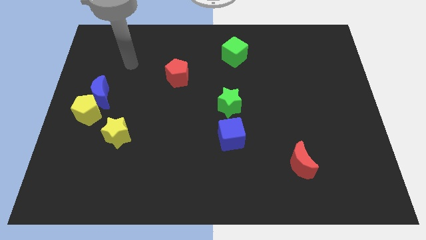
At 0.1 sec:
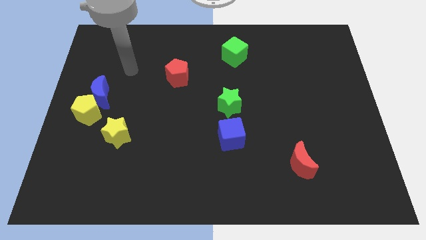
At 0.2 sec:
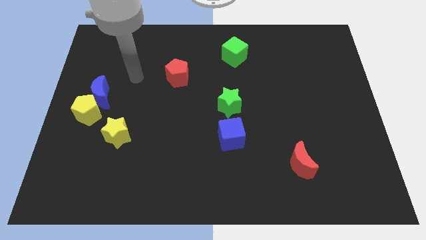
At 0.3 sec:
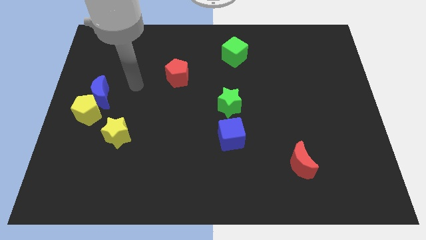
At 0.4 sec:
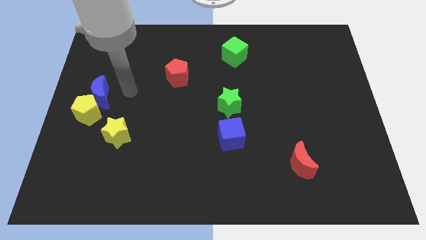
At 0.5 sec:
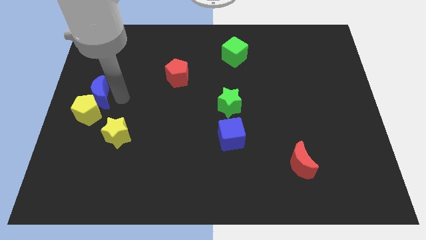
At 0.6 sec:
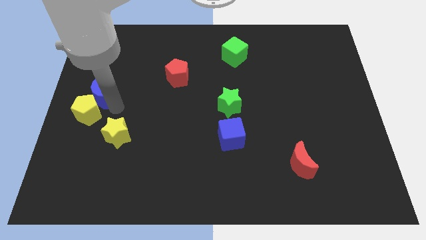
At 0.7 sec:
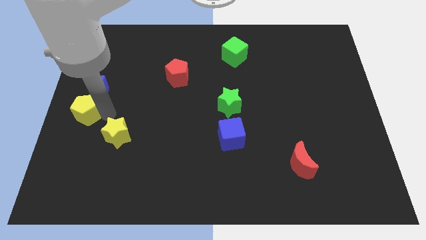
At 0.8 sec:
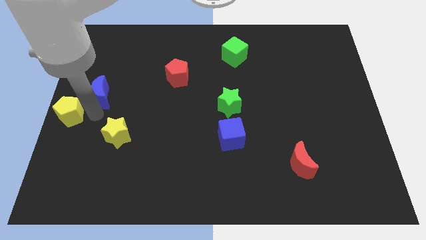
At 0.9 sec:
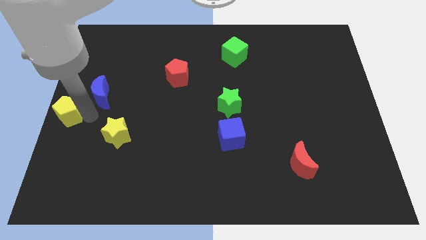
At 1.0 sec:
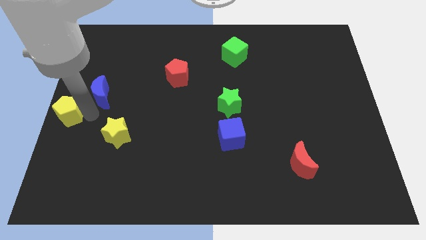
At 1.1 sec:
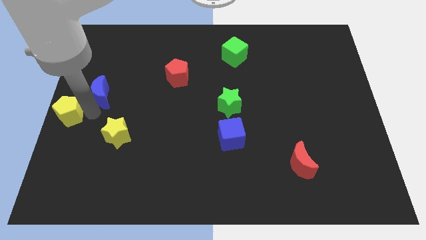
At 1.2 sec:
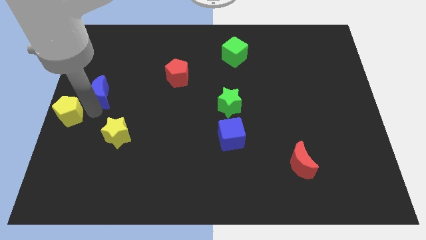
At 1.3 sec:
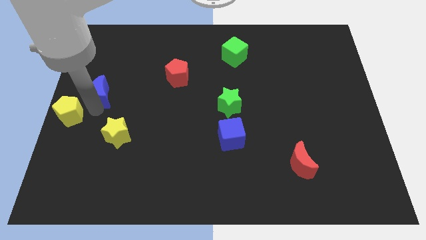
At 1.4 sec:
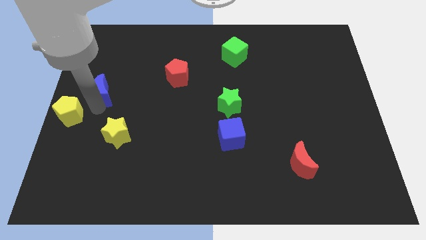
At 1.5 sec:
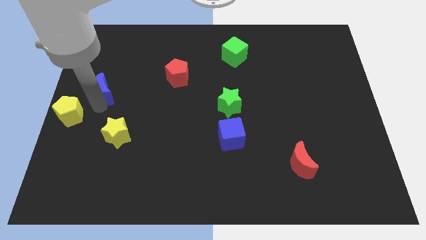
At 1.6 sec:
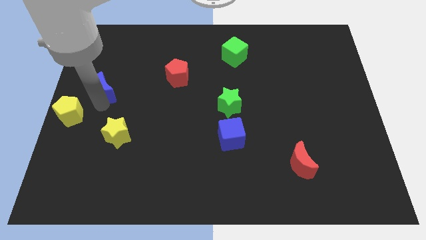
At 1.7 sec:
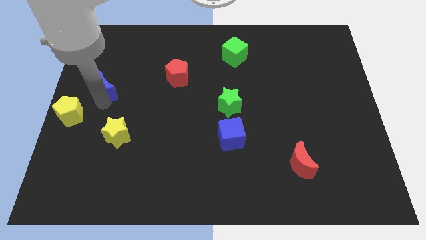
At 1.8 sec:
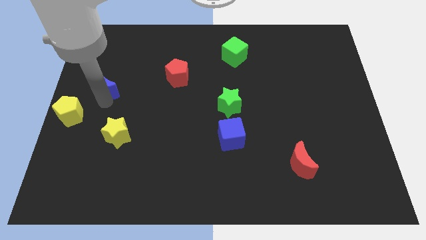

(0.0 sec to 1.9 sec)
pull the blue moon apart from the yellow pentagon

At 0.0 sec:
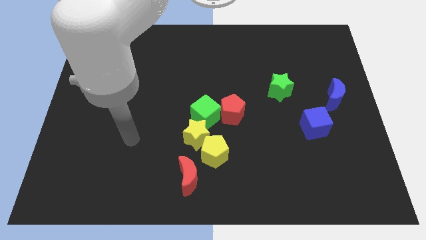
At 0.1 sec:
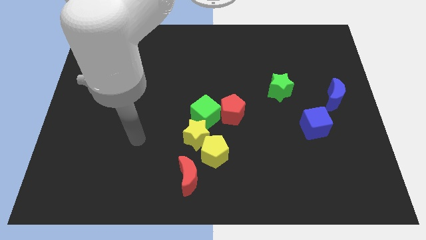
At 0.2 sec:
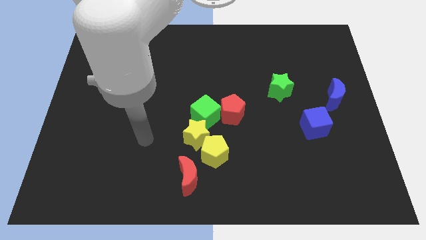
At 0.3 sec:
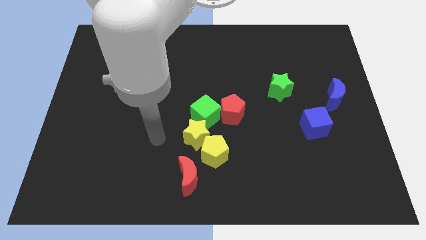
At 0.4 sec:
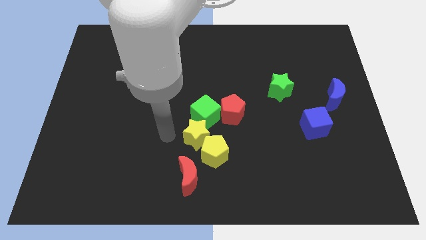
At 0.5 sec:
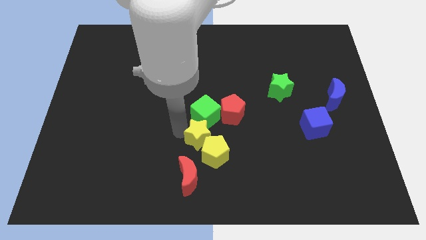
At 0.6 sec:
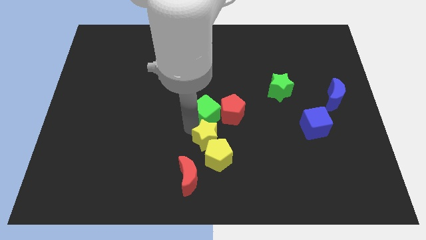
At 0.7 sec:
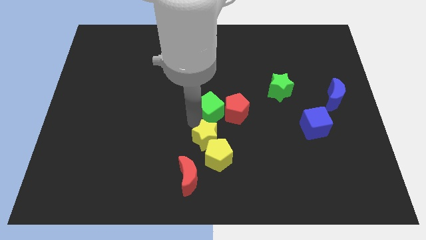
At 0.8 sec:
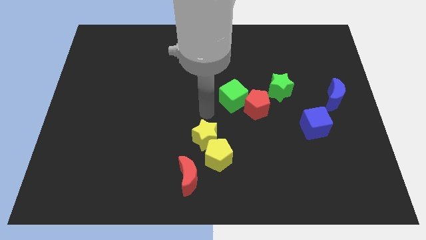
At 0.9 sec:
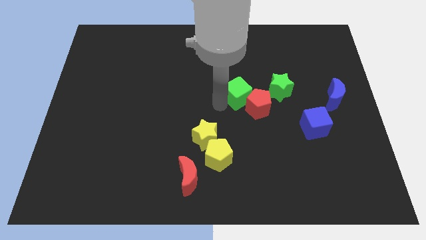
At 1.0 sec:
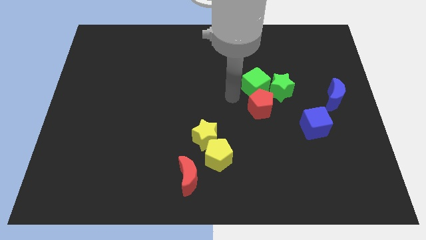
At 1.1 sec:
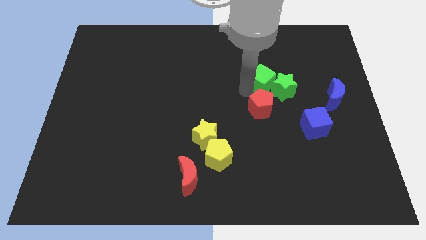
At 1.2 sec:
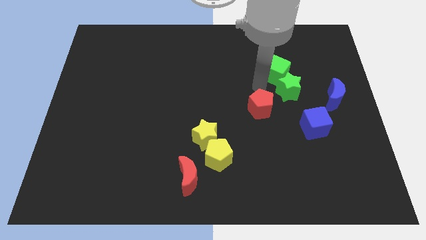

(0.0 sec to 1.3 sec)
move the red pentagon away from the green cube

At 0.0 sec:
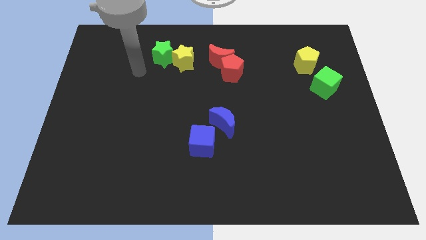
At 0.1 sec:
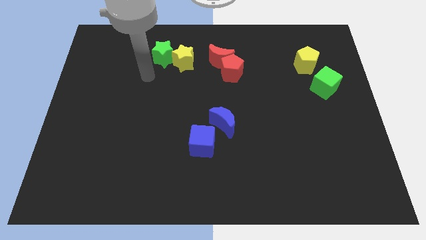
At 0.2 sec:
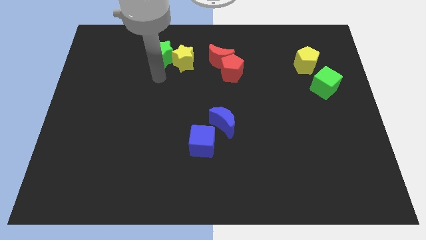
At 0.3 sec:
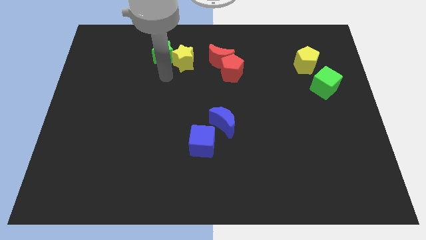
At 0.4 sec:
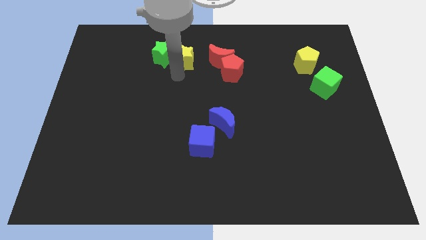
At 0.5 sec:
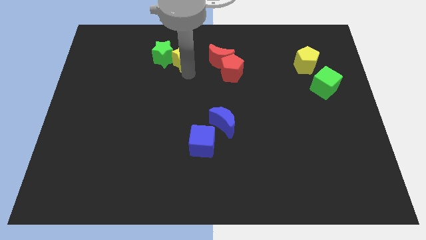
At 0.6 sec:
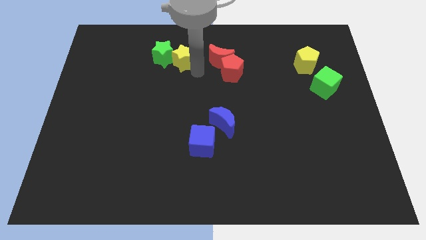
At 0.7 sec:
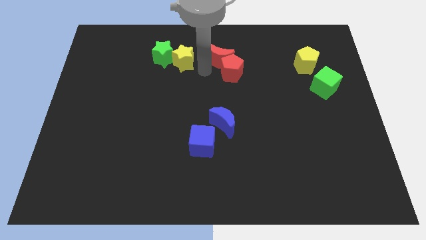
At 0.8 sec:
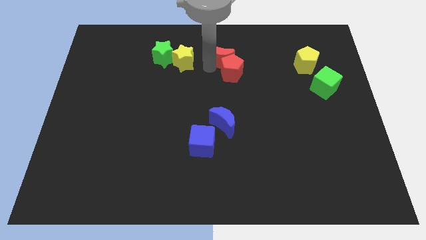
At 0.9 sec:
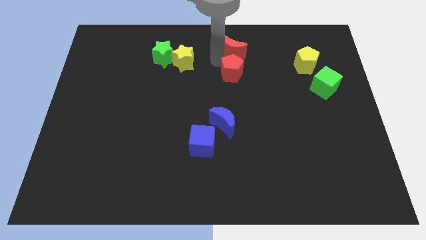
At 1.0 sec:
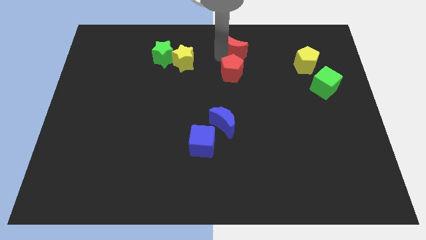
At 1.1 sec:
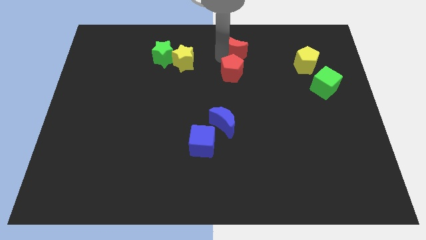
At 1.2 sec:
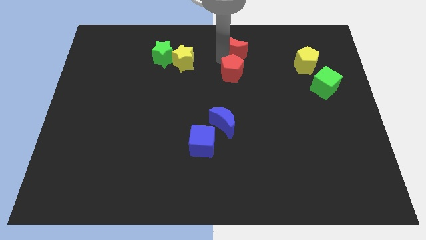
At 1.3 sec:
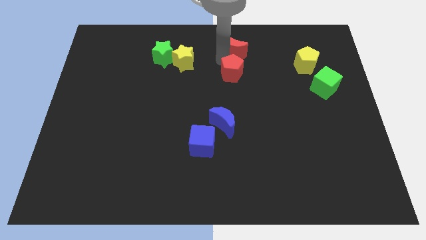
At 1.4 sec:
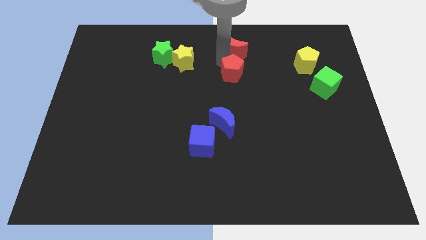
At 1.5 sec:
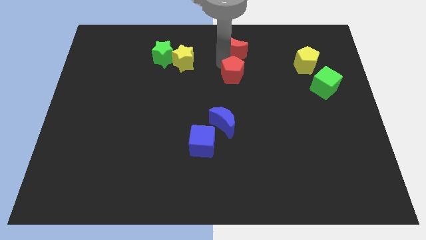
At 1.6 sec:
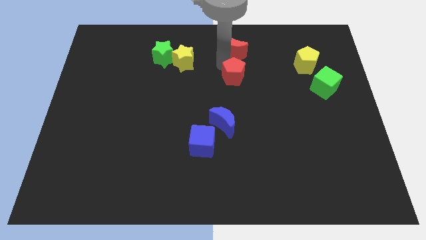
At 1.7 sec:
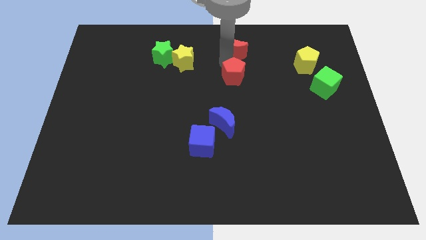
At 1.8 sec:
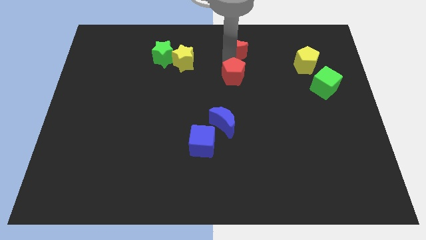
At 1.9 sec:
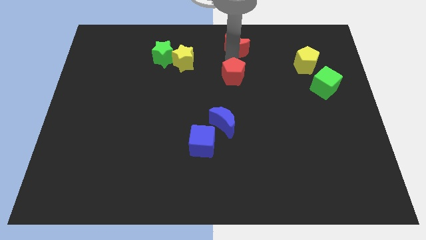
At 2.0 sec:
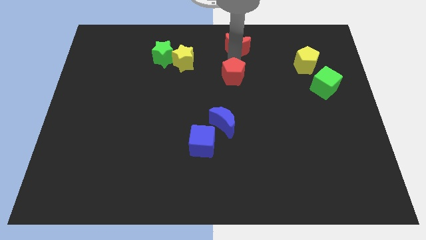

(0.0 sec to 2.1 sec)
pull the red pentagon apart from the red moon

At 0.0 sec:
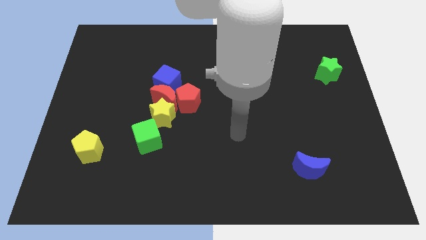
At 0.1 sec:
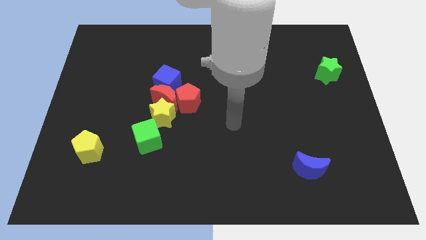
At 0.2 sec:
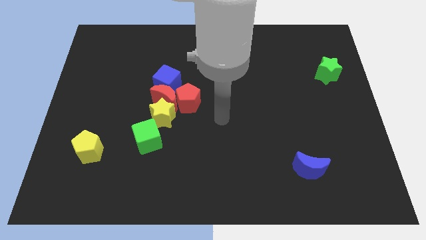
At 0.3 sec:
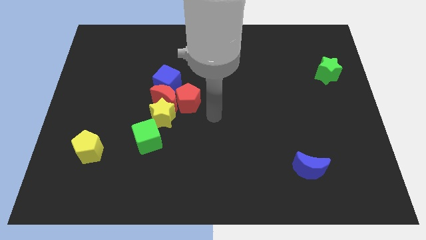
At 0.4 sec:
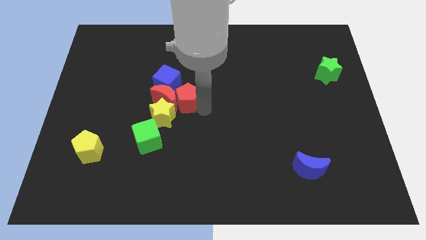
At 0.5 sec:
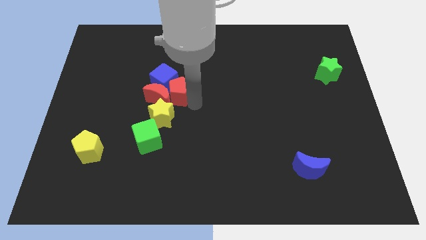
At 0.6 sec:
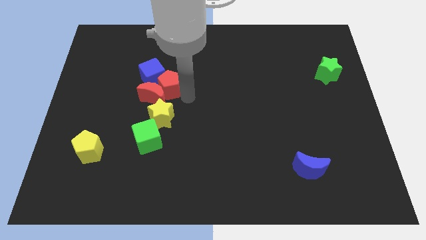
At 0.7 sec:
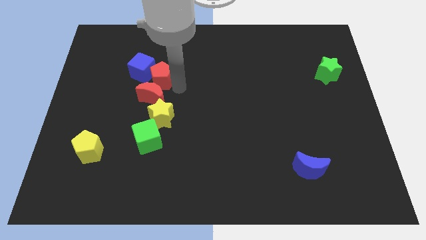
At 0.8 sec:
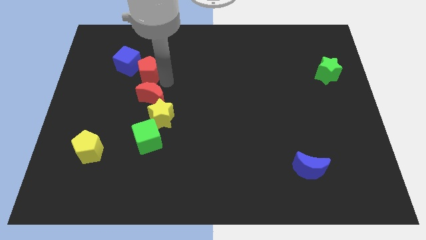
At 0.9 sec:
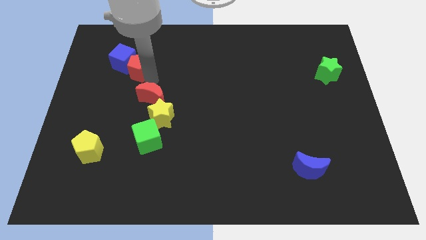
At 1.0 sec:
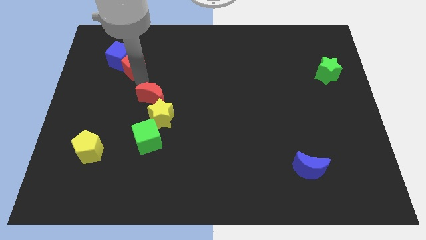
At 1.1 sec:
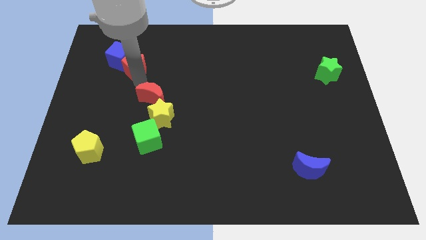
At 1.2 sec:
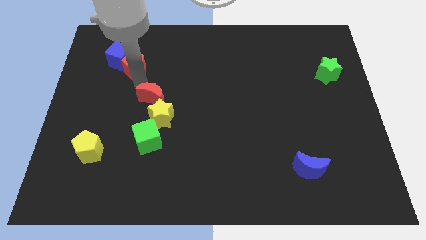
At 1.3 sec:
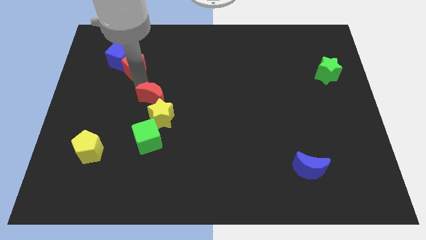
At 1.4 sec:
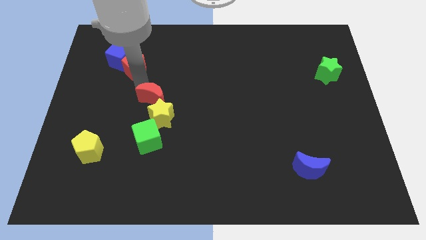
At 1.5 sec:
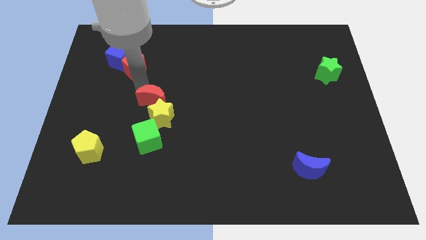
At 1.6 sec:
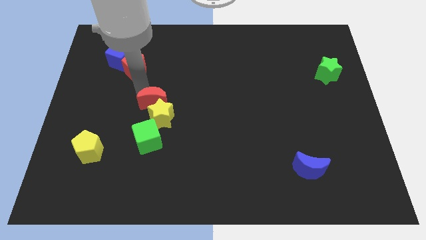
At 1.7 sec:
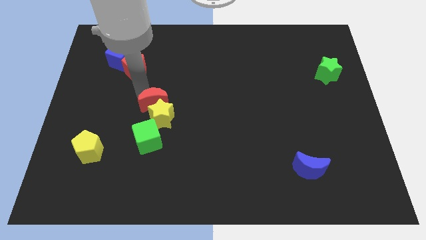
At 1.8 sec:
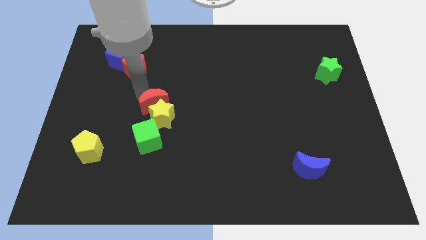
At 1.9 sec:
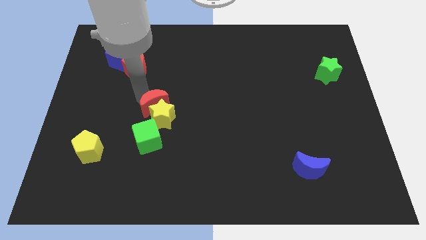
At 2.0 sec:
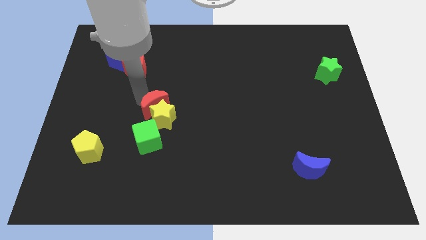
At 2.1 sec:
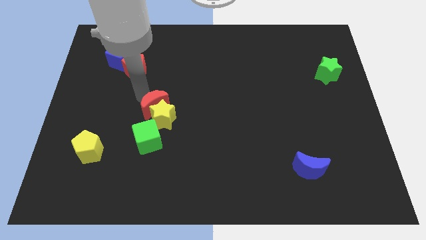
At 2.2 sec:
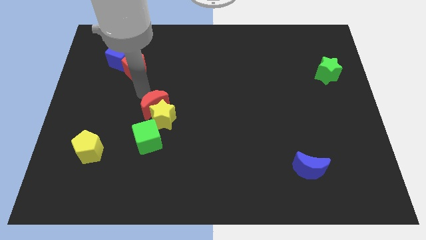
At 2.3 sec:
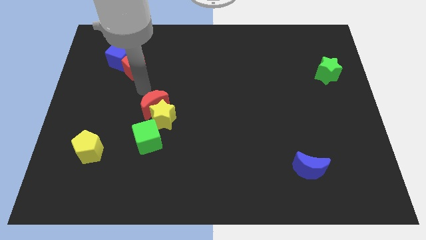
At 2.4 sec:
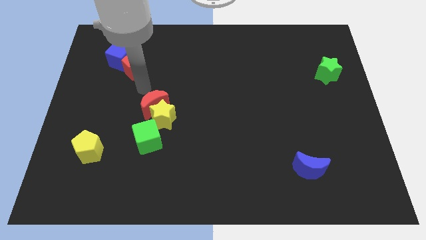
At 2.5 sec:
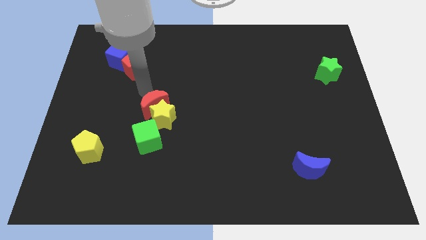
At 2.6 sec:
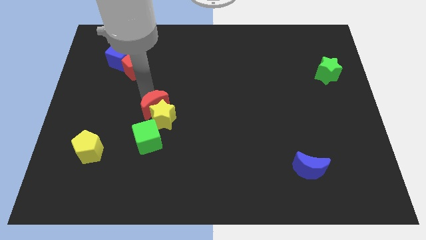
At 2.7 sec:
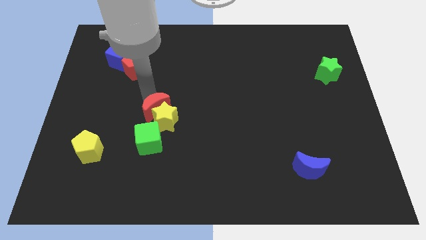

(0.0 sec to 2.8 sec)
separate the red moon from the red pentagon, yellow star, and blue cube

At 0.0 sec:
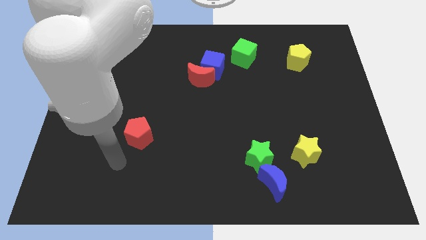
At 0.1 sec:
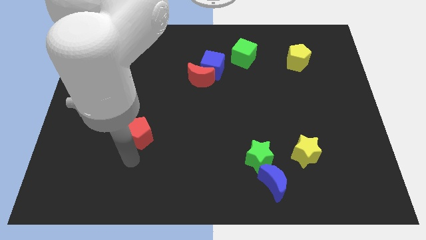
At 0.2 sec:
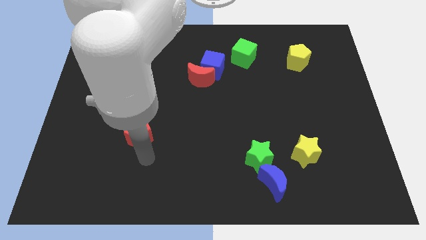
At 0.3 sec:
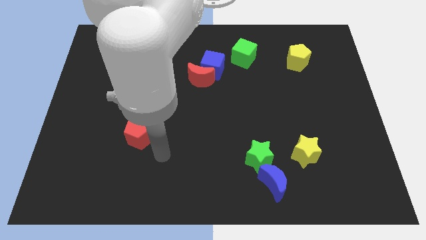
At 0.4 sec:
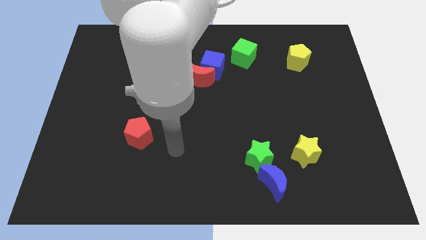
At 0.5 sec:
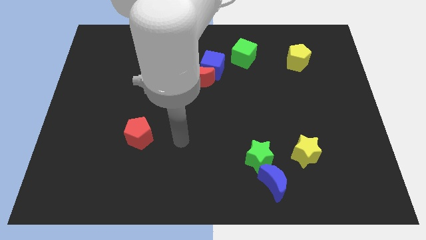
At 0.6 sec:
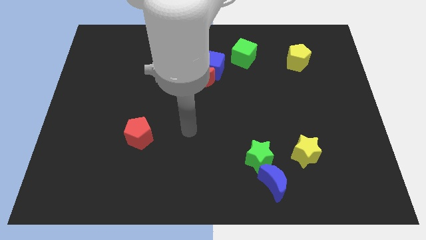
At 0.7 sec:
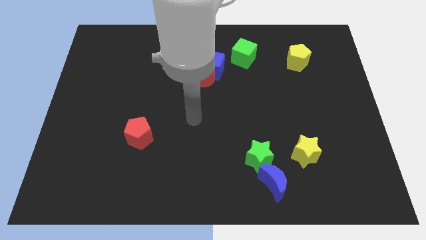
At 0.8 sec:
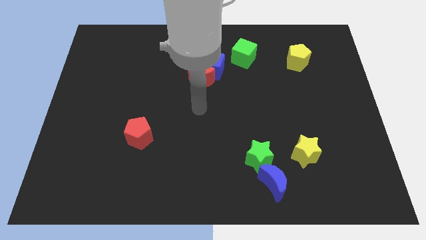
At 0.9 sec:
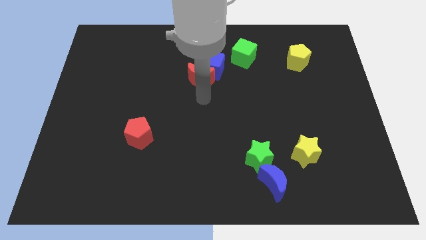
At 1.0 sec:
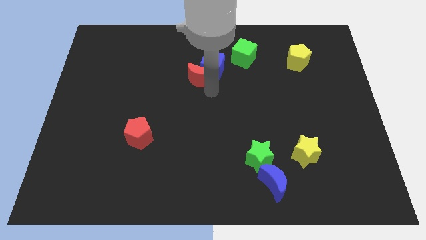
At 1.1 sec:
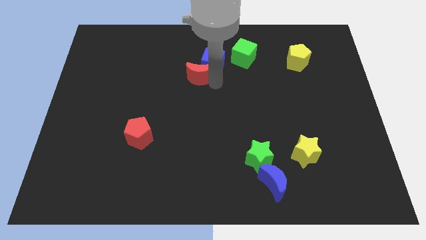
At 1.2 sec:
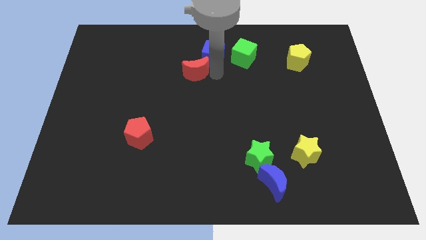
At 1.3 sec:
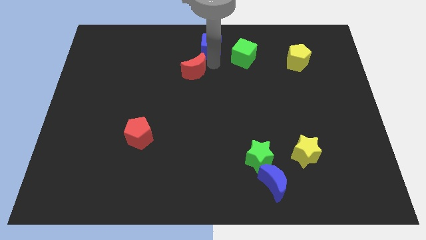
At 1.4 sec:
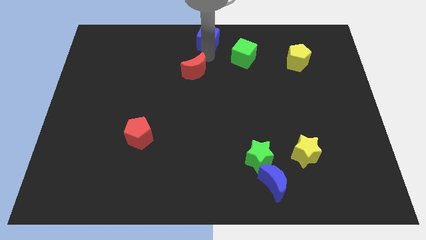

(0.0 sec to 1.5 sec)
move the red moon away from the blue cube
